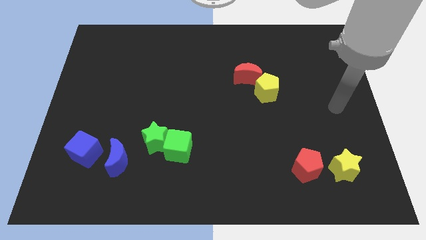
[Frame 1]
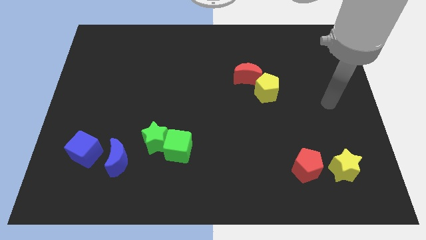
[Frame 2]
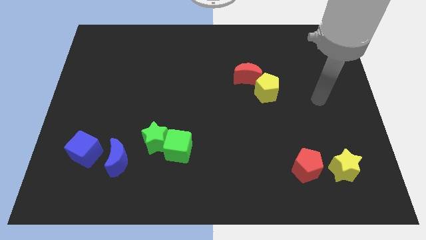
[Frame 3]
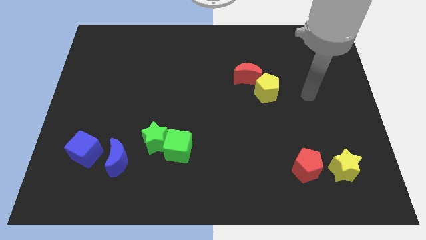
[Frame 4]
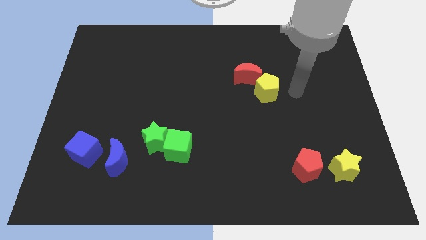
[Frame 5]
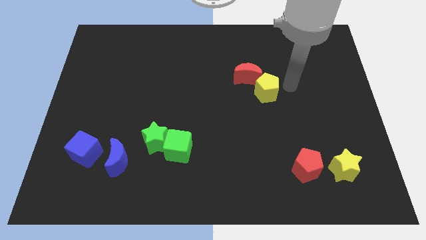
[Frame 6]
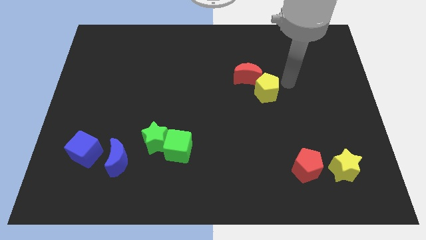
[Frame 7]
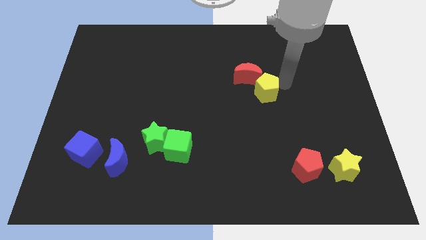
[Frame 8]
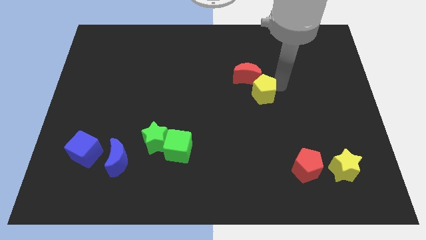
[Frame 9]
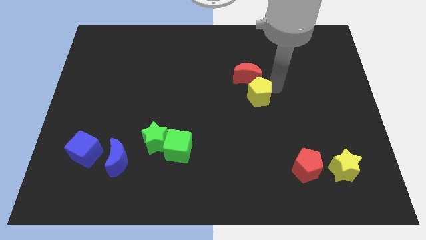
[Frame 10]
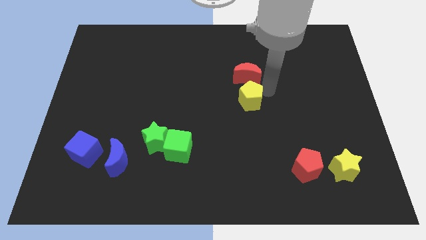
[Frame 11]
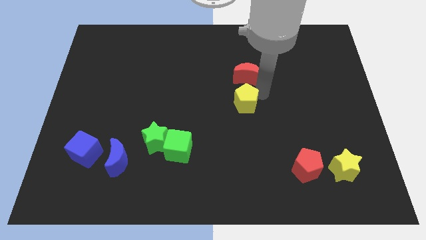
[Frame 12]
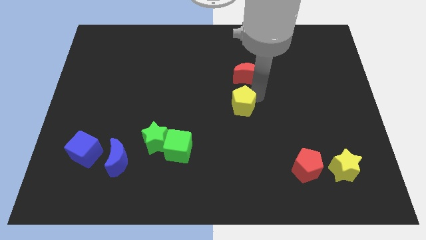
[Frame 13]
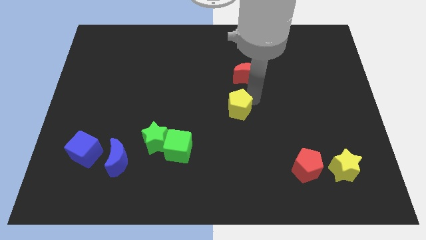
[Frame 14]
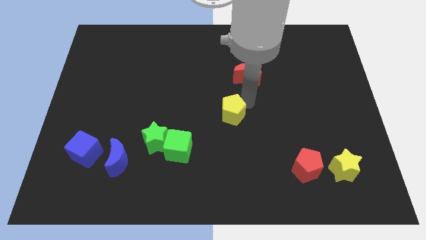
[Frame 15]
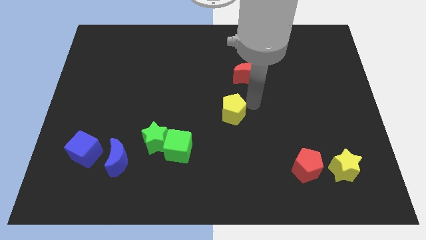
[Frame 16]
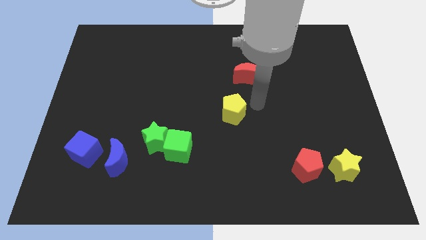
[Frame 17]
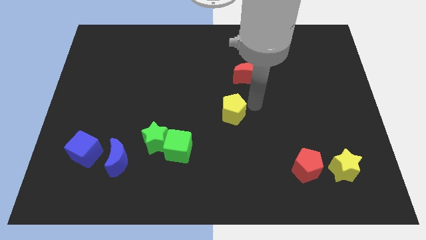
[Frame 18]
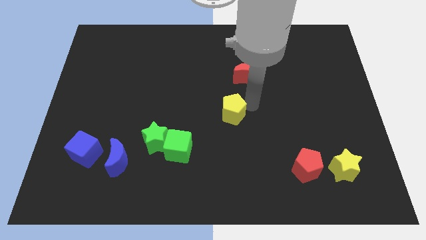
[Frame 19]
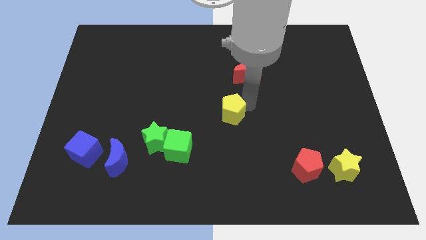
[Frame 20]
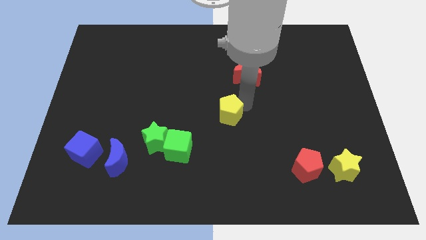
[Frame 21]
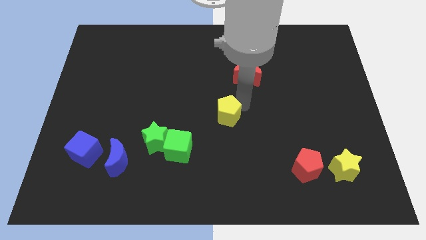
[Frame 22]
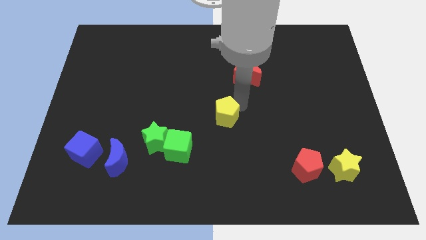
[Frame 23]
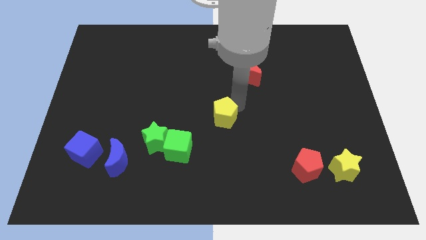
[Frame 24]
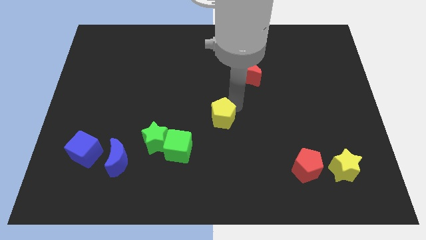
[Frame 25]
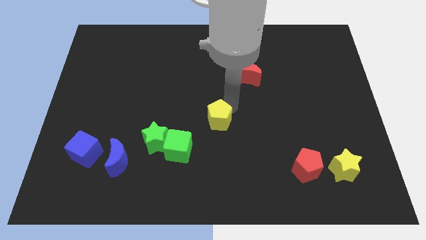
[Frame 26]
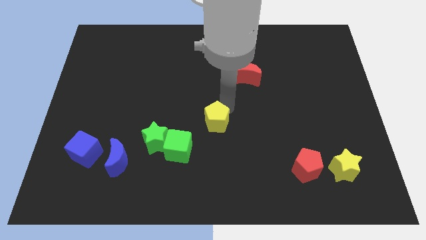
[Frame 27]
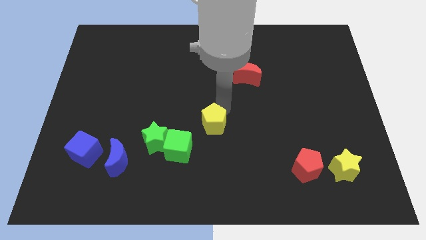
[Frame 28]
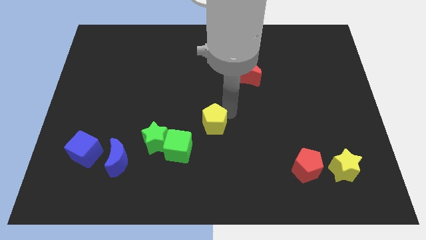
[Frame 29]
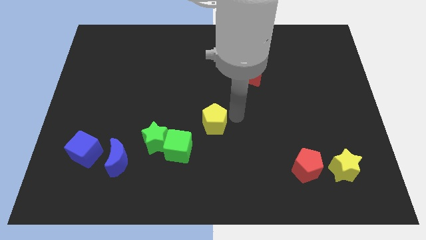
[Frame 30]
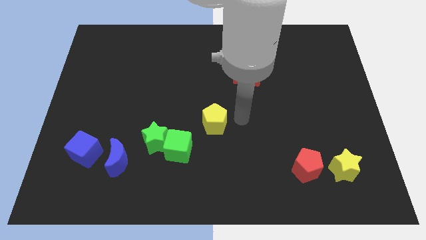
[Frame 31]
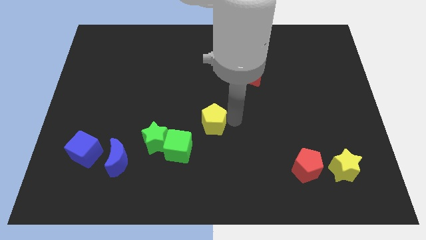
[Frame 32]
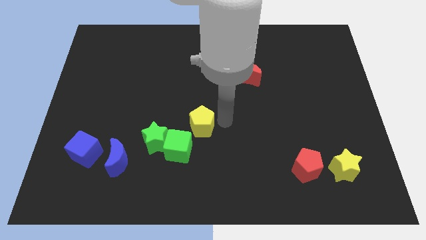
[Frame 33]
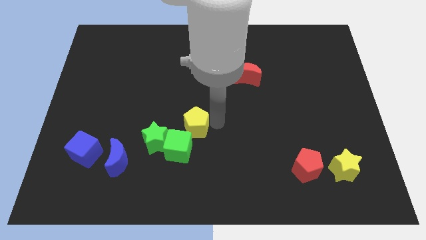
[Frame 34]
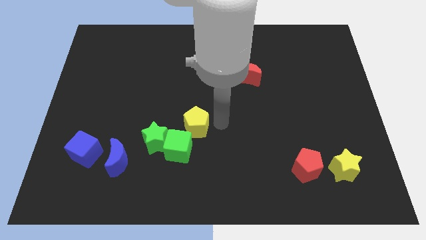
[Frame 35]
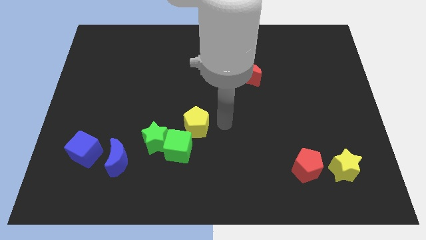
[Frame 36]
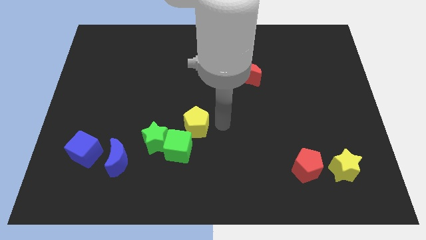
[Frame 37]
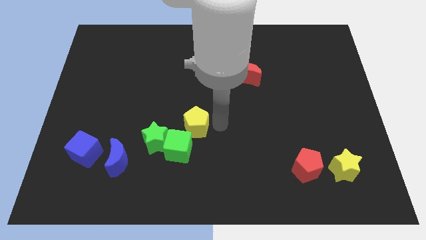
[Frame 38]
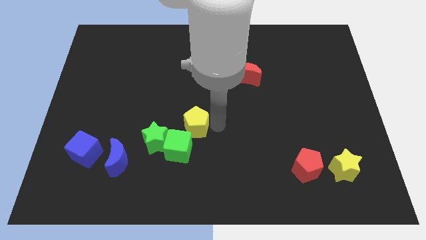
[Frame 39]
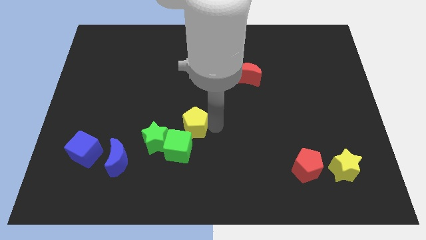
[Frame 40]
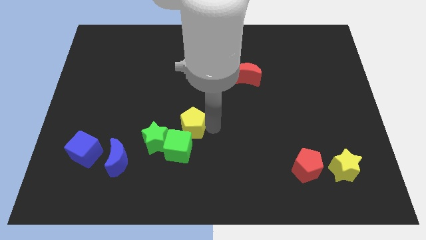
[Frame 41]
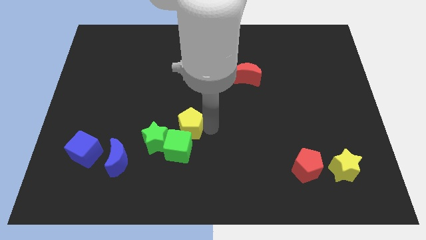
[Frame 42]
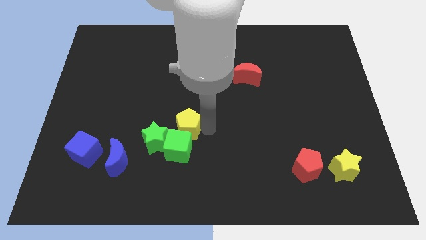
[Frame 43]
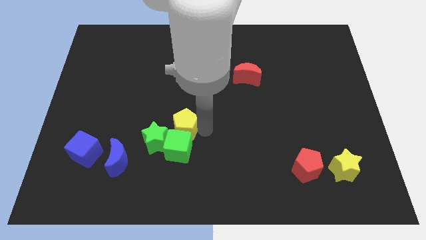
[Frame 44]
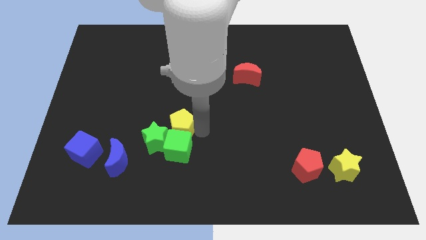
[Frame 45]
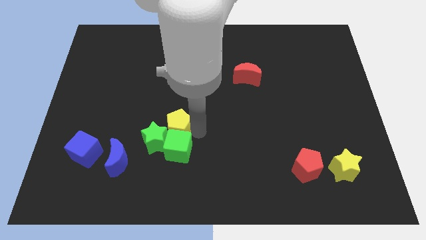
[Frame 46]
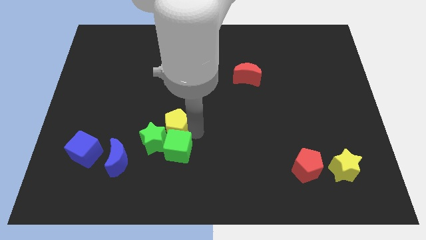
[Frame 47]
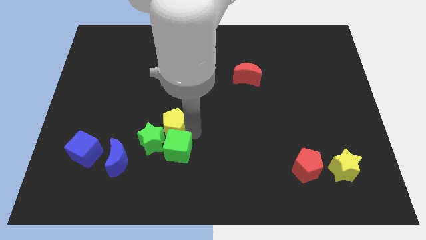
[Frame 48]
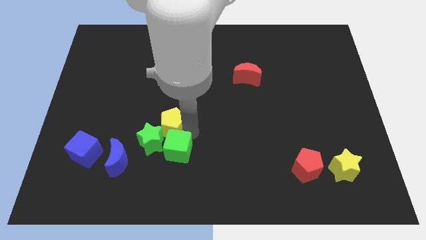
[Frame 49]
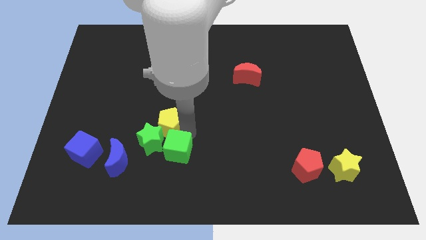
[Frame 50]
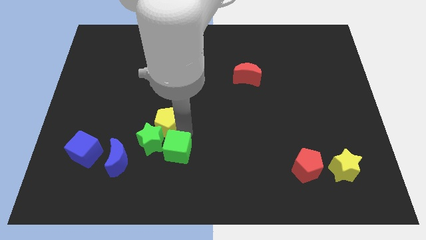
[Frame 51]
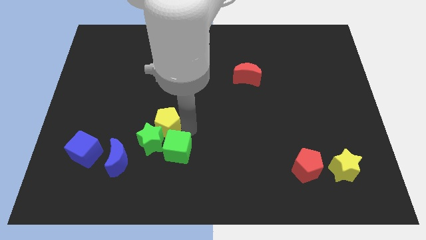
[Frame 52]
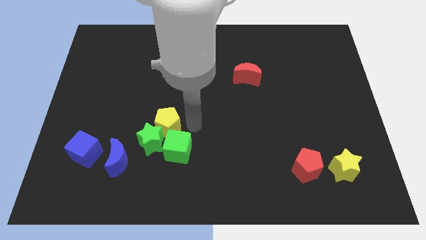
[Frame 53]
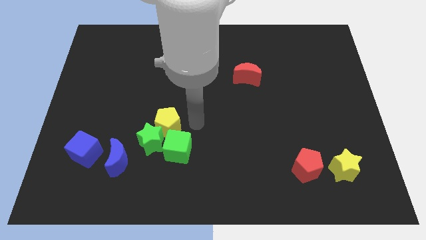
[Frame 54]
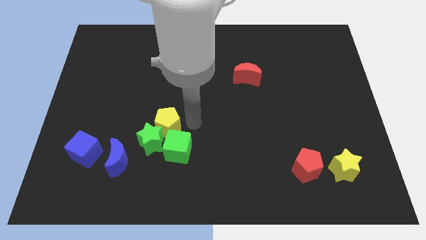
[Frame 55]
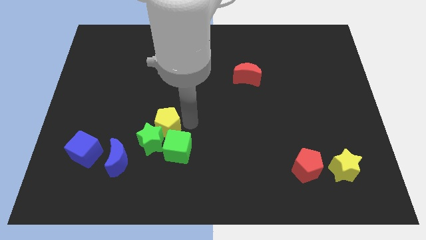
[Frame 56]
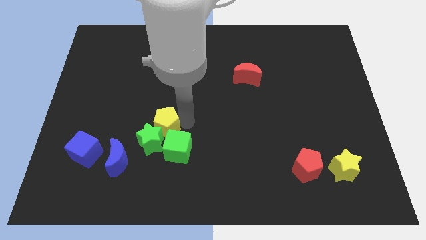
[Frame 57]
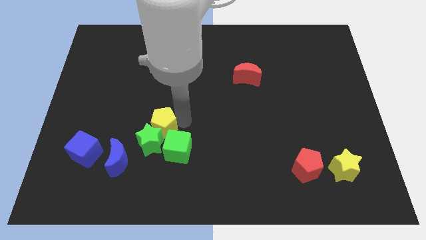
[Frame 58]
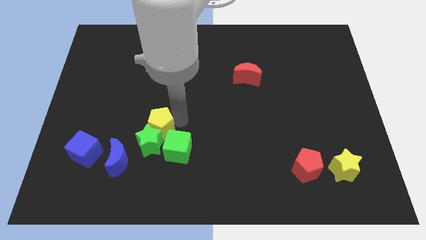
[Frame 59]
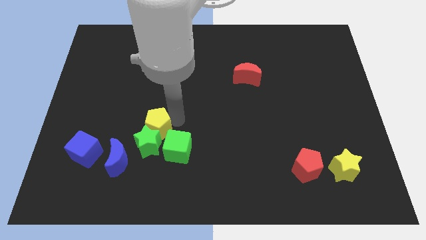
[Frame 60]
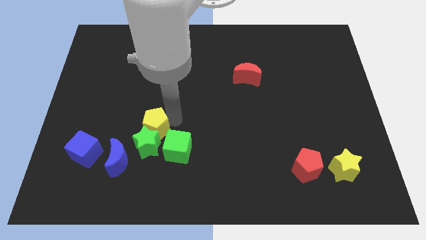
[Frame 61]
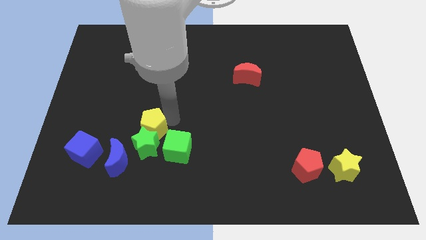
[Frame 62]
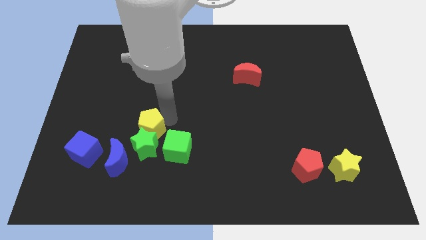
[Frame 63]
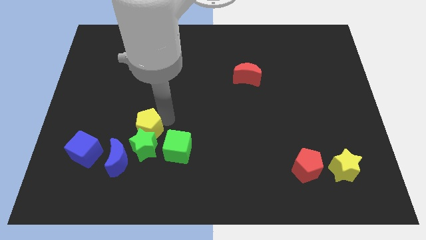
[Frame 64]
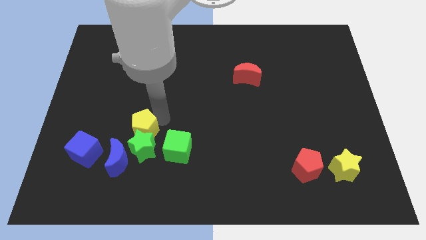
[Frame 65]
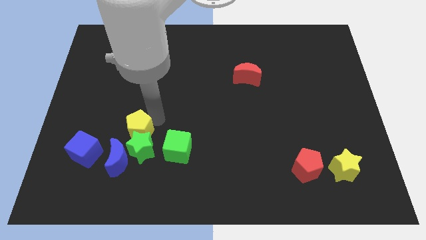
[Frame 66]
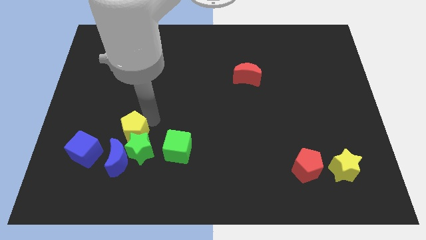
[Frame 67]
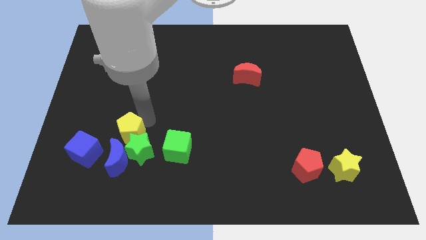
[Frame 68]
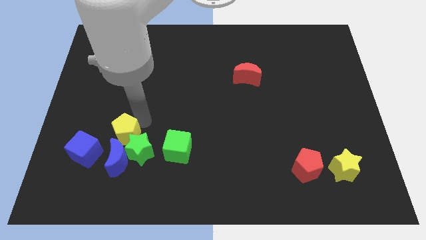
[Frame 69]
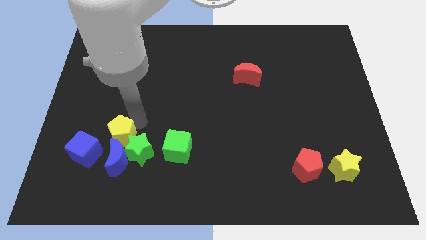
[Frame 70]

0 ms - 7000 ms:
slide the yellow pentagon just left of the green star
